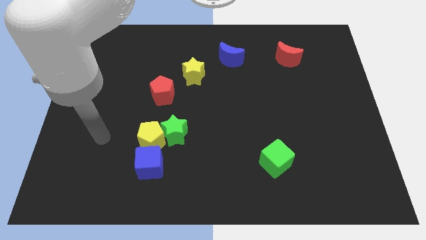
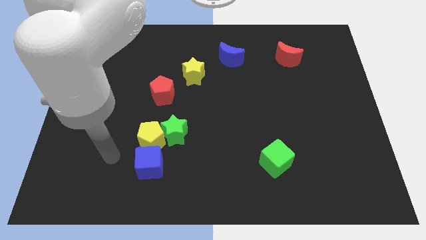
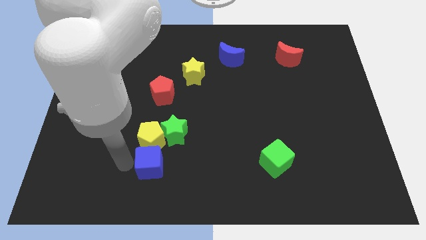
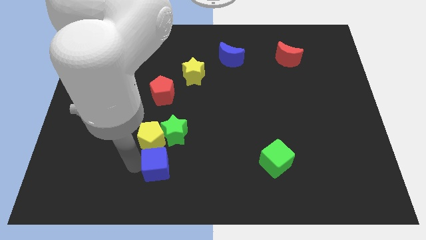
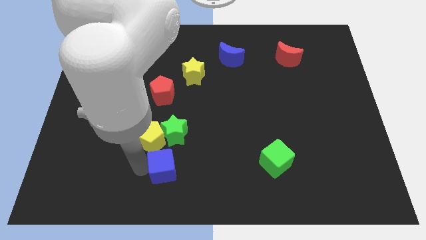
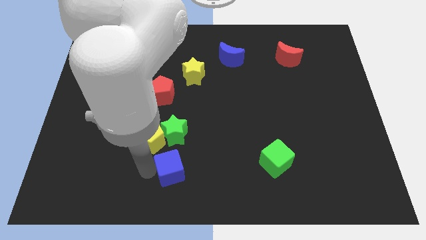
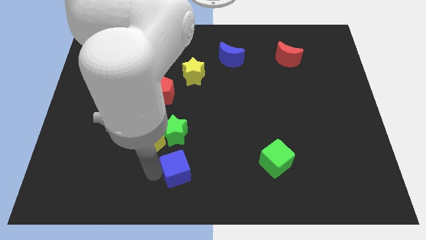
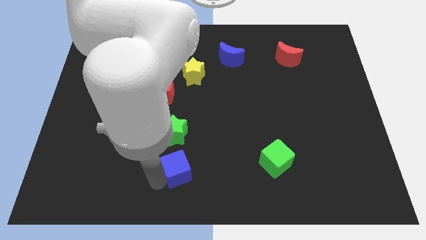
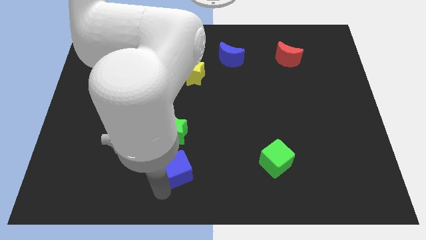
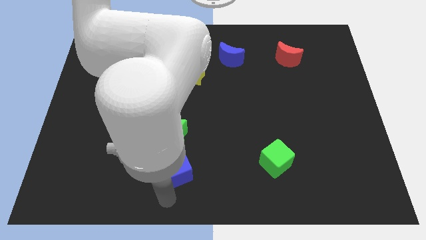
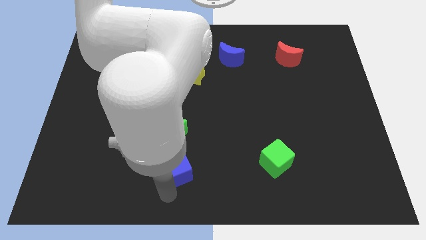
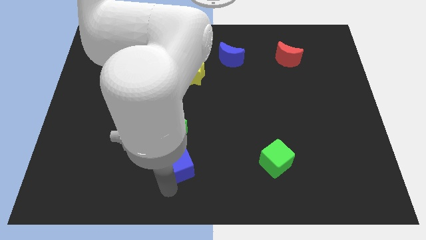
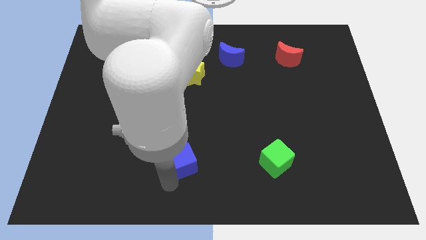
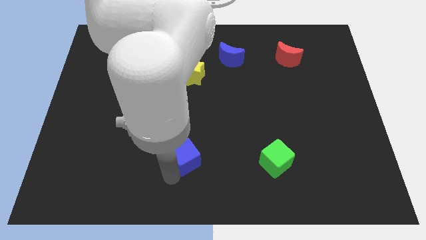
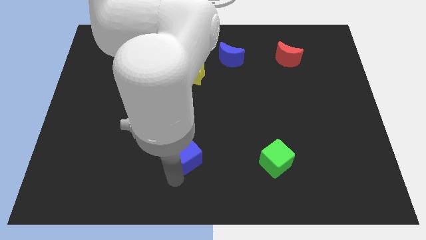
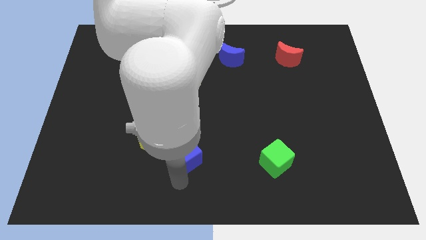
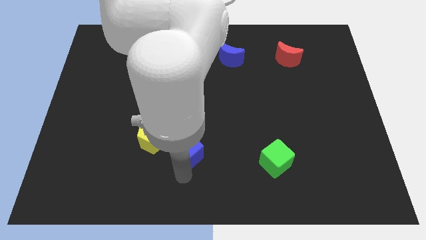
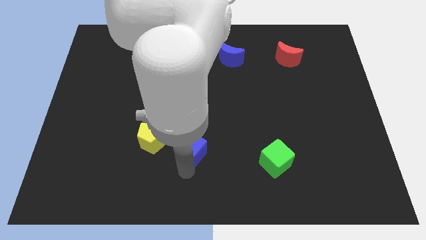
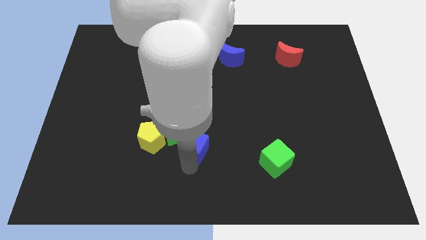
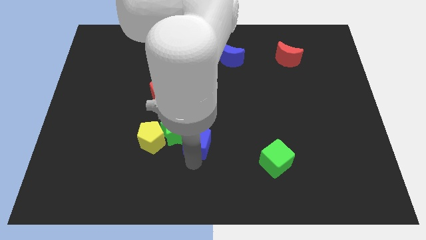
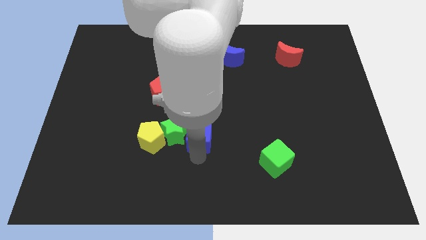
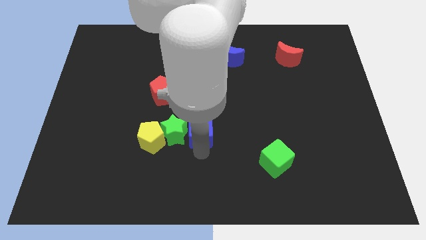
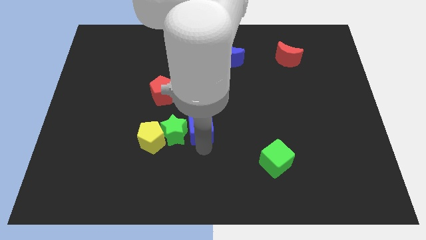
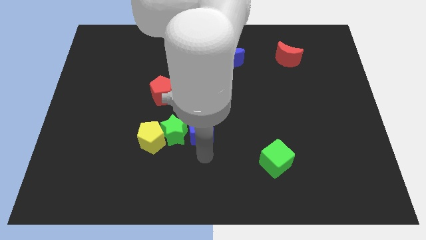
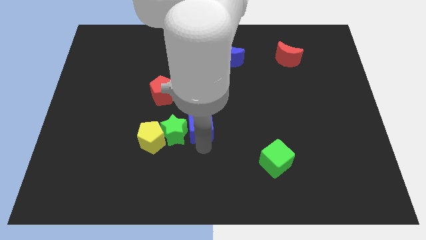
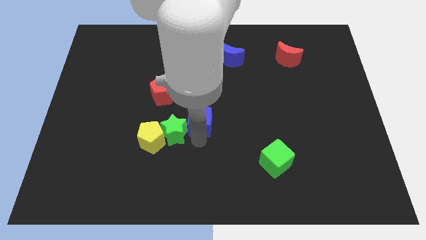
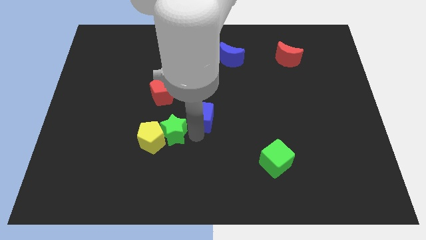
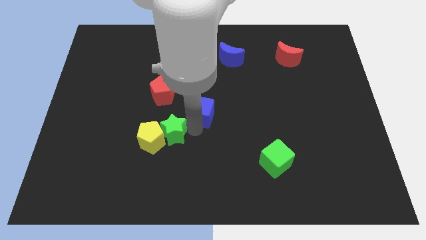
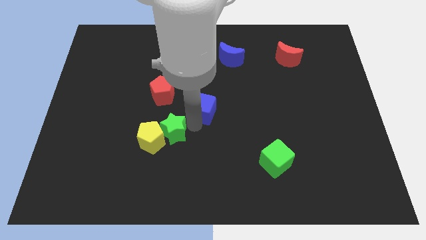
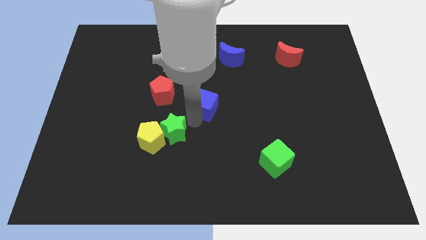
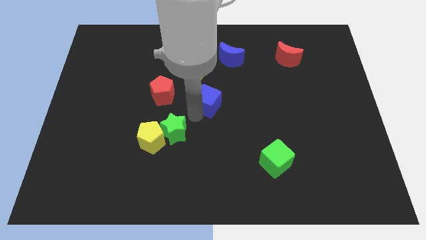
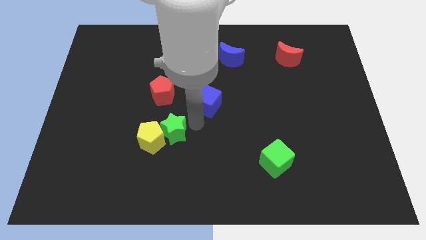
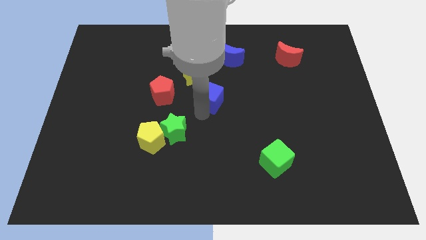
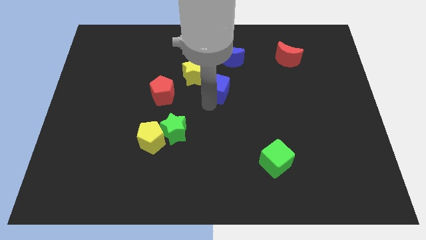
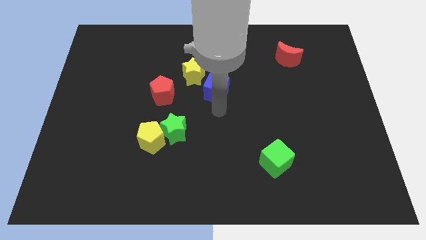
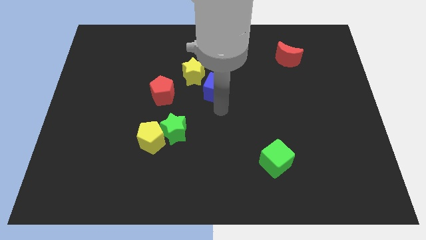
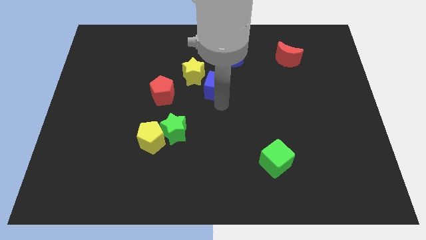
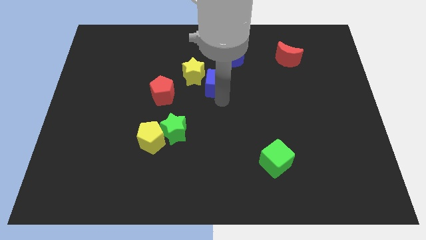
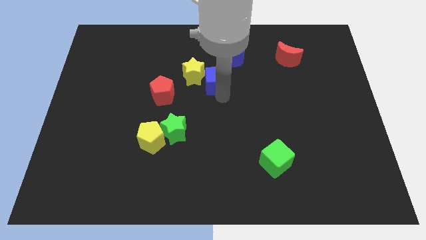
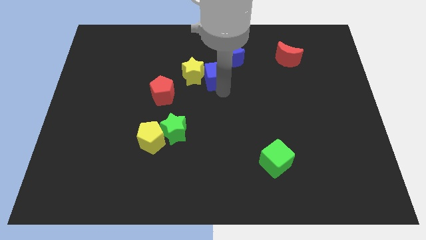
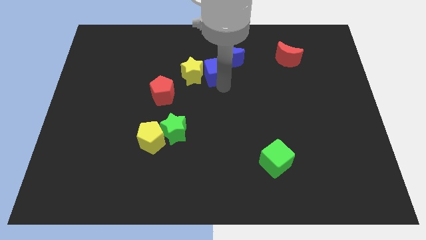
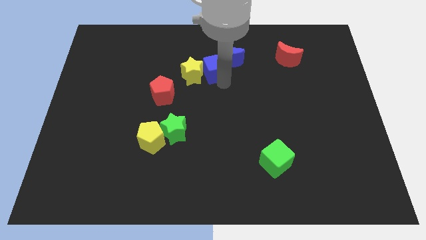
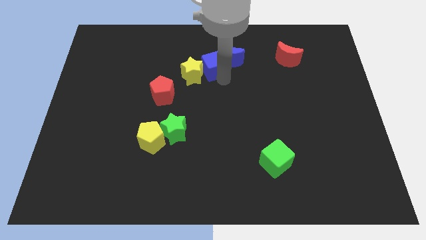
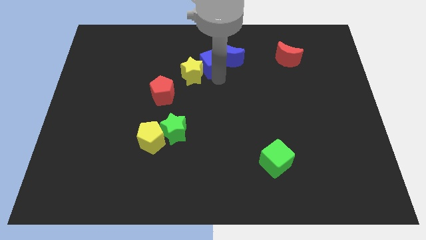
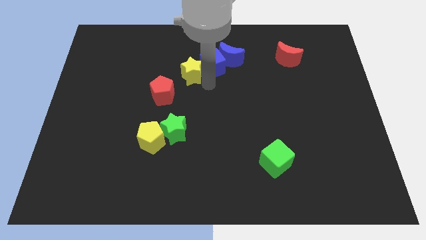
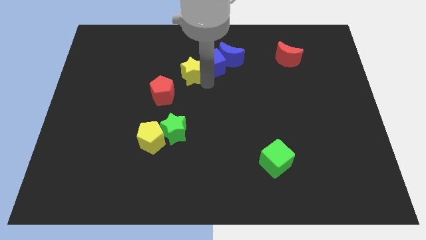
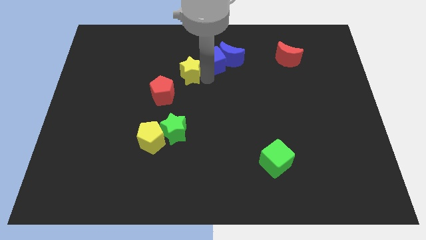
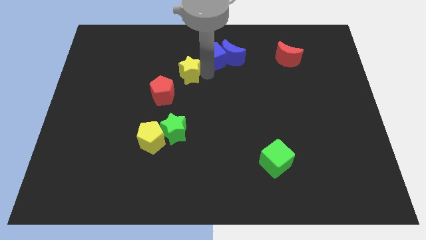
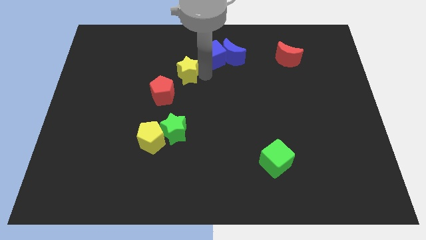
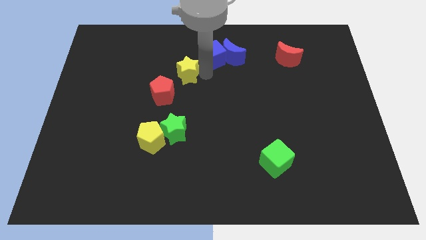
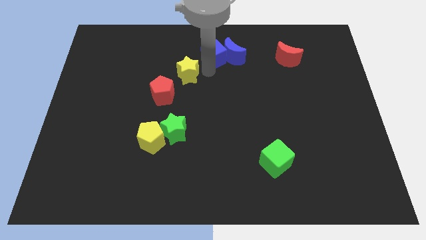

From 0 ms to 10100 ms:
push the blue cube to the top side
